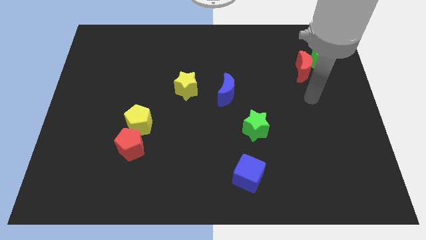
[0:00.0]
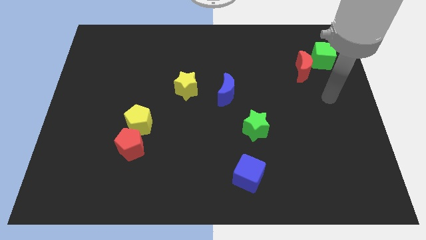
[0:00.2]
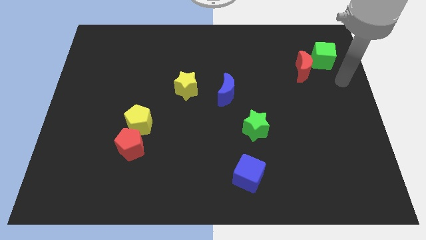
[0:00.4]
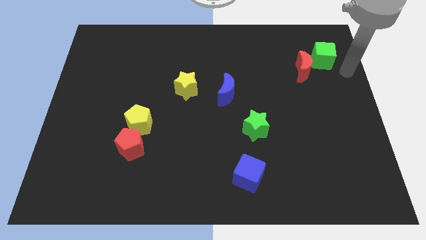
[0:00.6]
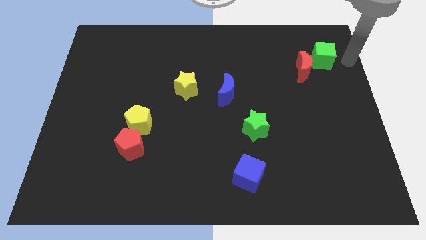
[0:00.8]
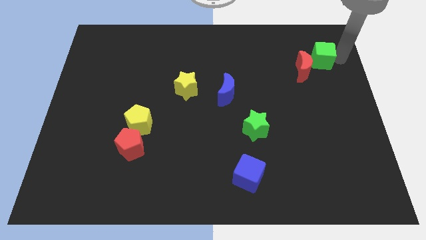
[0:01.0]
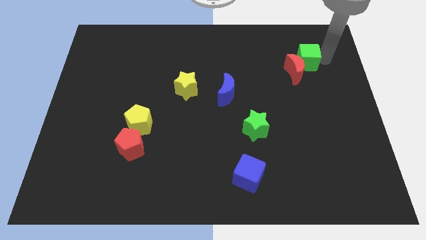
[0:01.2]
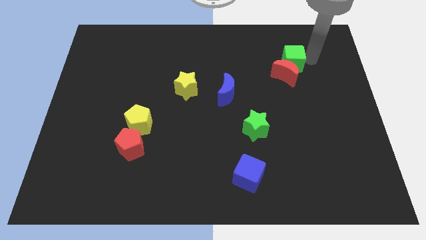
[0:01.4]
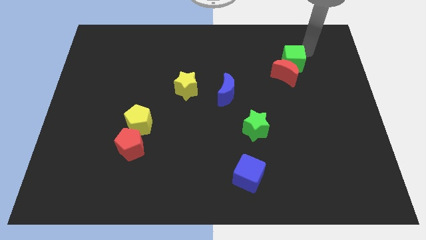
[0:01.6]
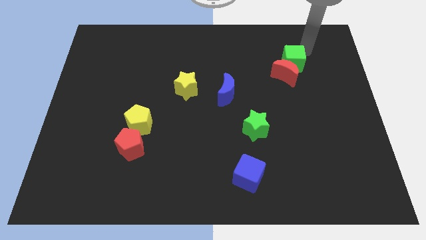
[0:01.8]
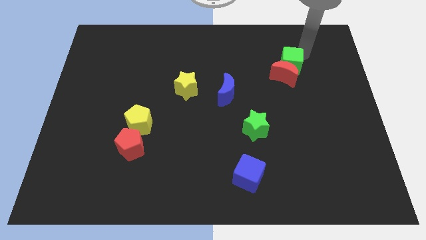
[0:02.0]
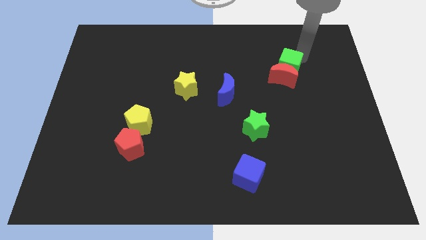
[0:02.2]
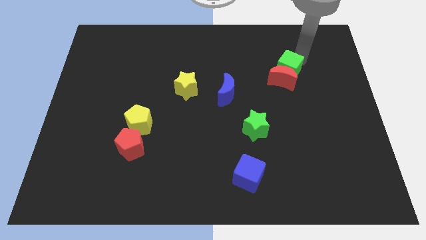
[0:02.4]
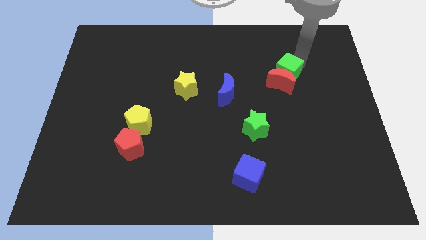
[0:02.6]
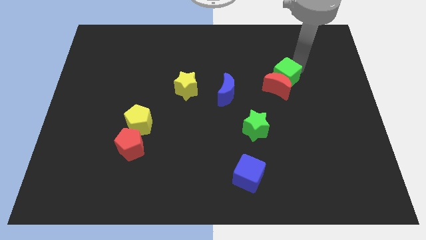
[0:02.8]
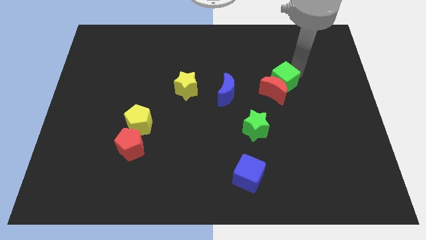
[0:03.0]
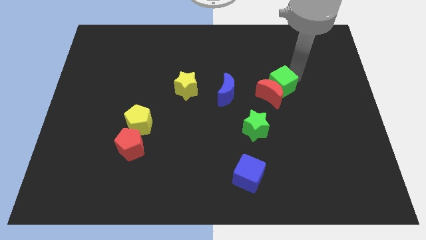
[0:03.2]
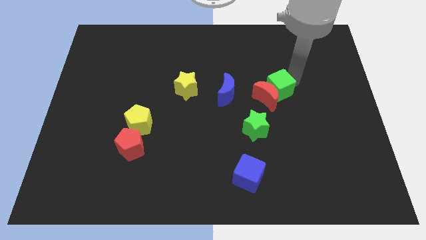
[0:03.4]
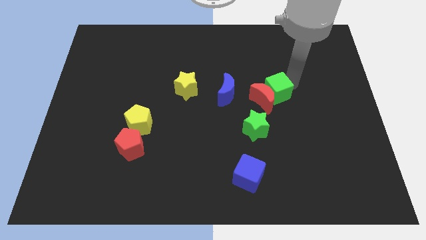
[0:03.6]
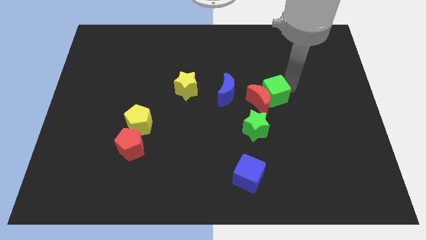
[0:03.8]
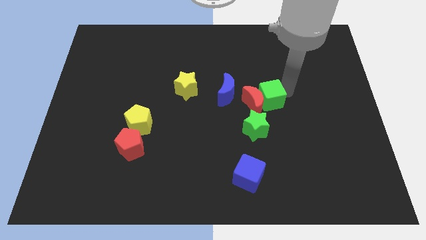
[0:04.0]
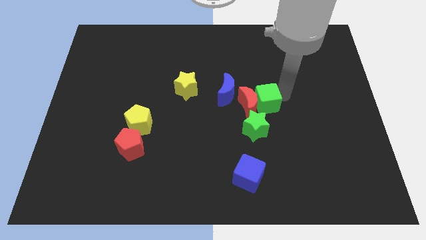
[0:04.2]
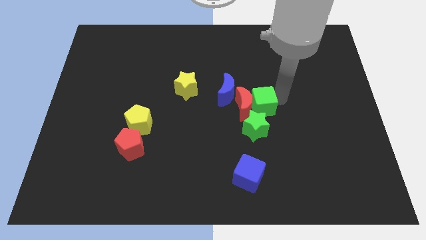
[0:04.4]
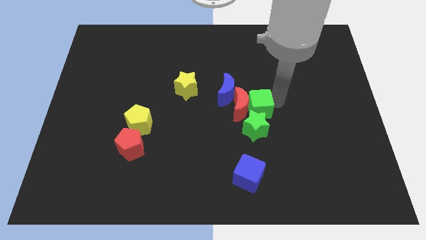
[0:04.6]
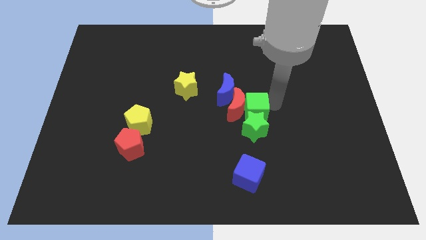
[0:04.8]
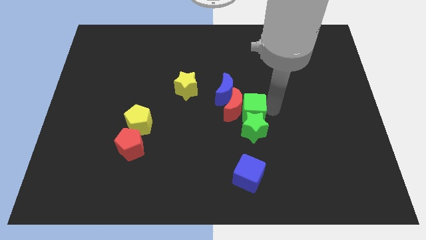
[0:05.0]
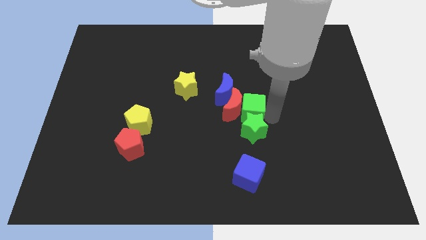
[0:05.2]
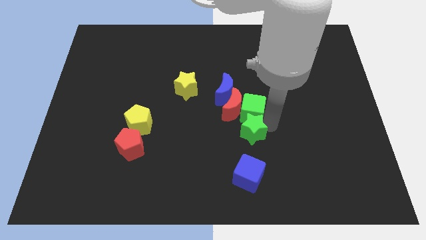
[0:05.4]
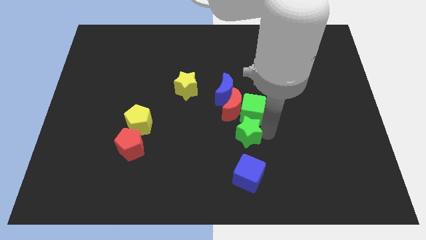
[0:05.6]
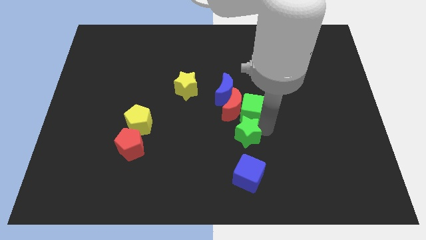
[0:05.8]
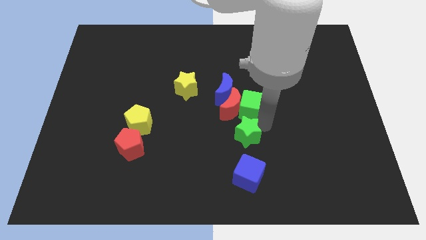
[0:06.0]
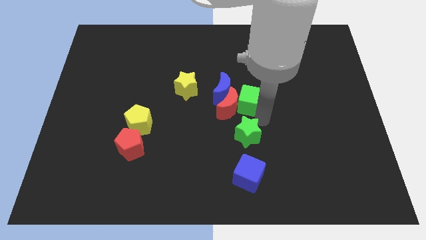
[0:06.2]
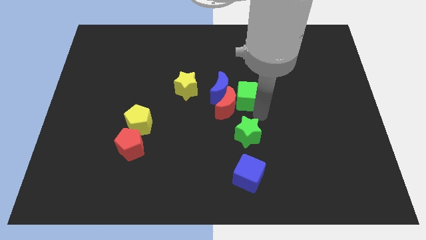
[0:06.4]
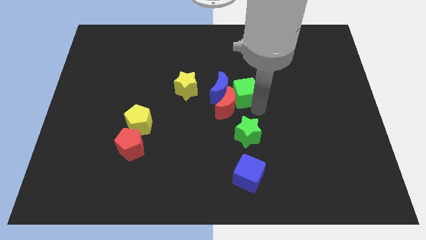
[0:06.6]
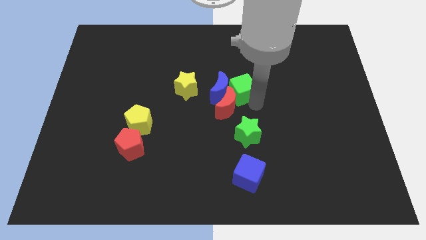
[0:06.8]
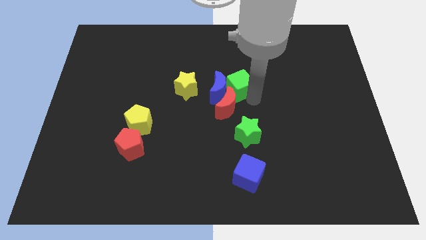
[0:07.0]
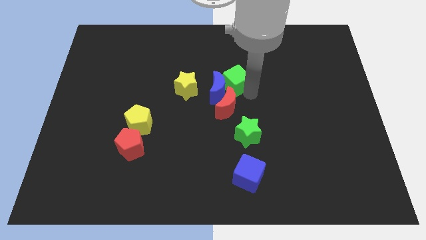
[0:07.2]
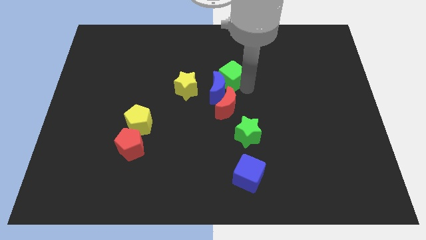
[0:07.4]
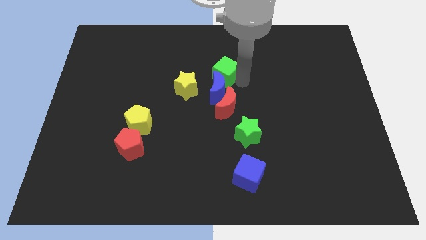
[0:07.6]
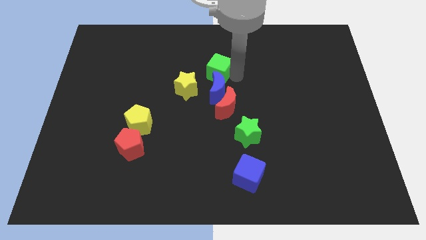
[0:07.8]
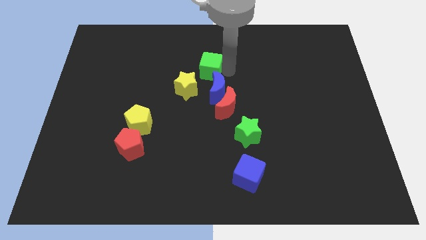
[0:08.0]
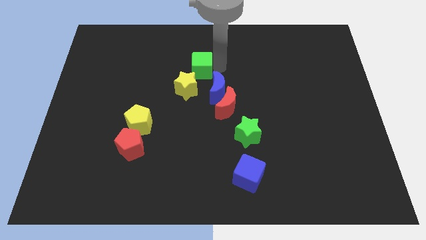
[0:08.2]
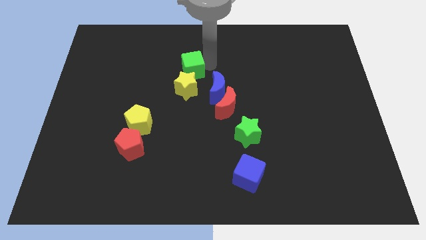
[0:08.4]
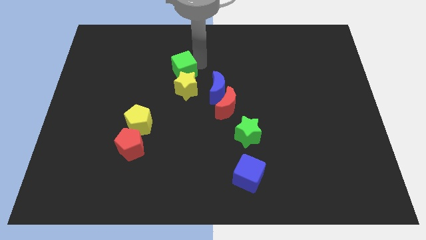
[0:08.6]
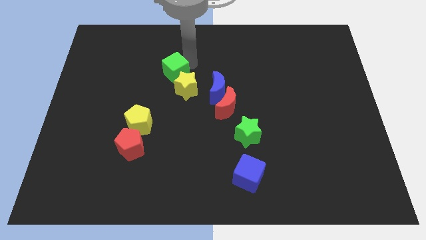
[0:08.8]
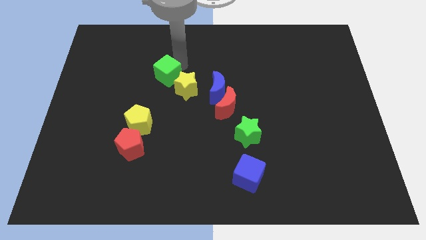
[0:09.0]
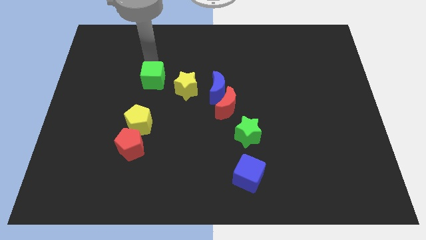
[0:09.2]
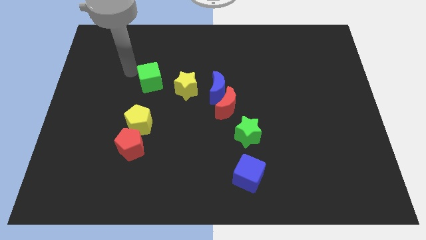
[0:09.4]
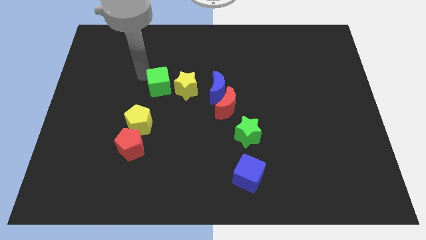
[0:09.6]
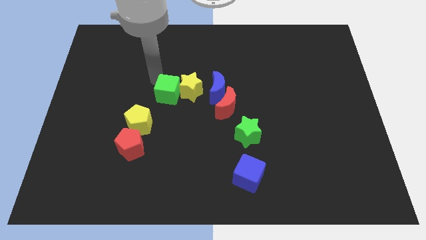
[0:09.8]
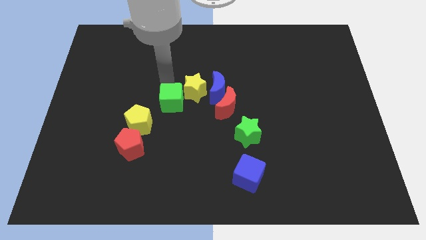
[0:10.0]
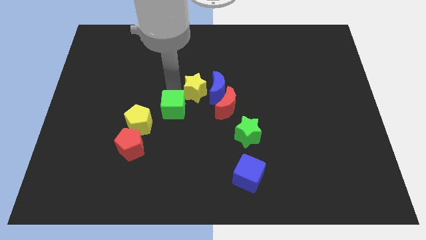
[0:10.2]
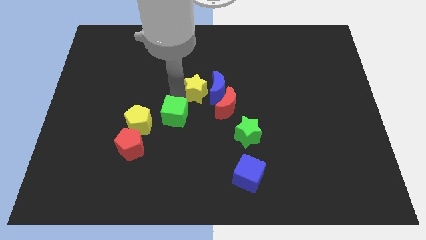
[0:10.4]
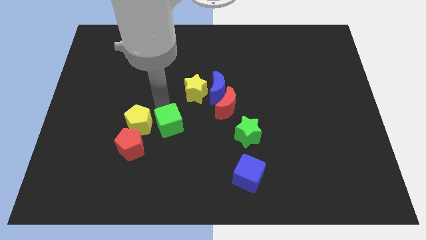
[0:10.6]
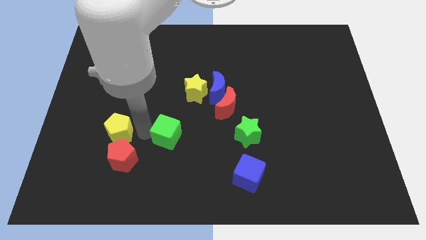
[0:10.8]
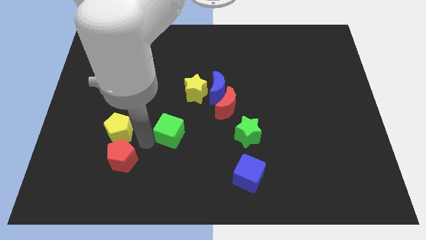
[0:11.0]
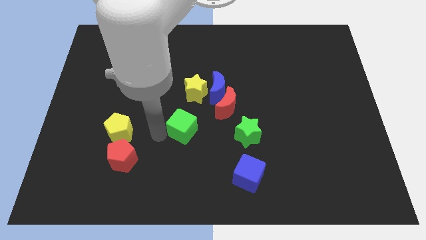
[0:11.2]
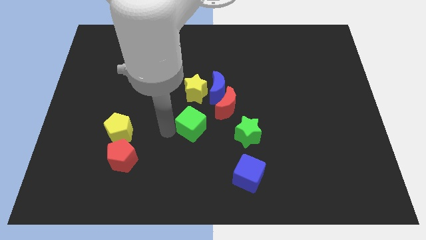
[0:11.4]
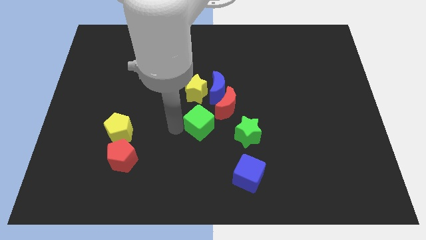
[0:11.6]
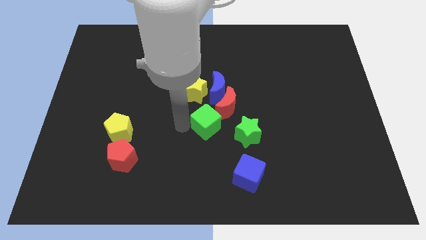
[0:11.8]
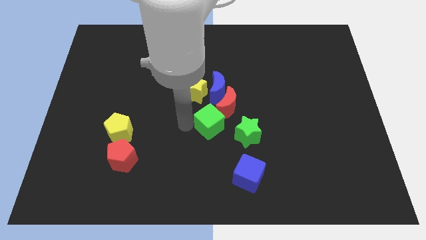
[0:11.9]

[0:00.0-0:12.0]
slide the green cube diagonally down and to the right of the yellow star

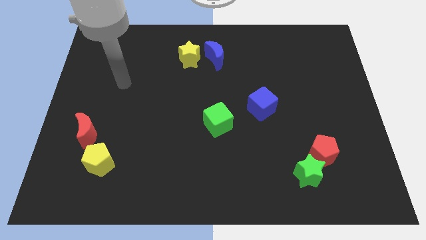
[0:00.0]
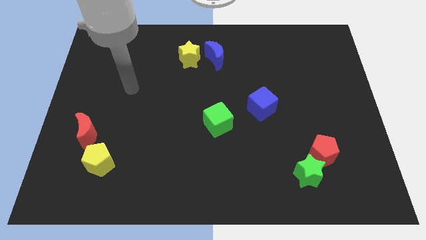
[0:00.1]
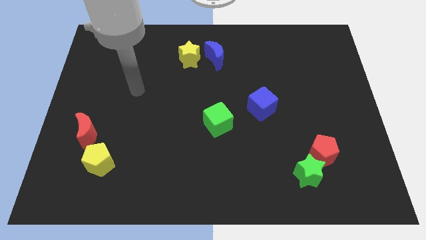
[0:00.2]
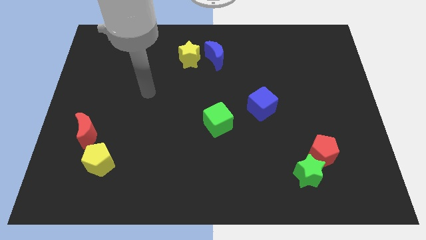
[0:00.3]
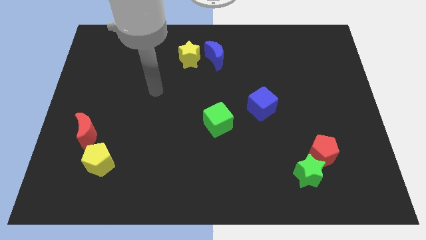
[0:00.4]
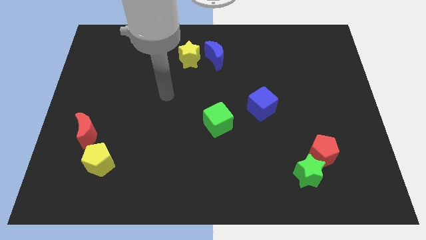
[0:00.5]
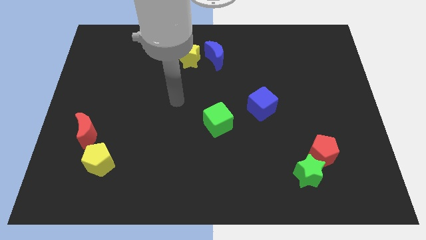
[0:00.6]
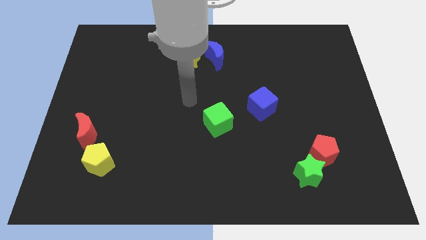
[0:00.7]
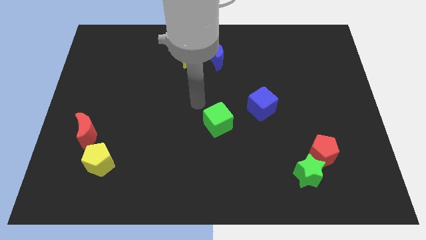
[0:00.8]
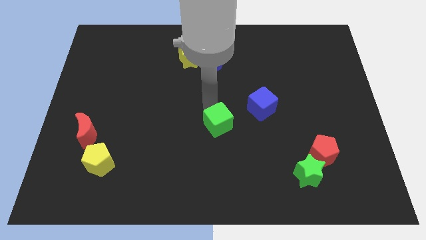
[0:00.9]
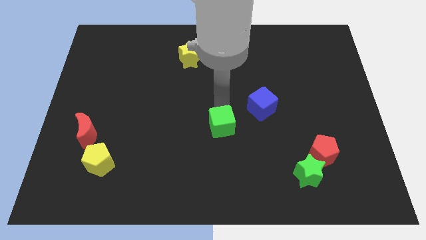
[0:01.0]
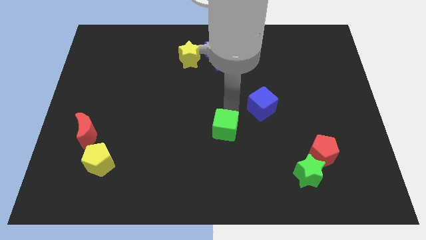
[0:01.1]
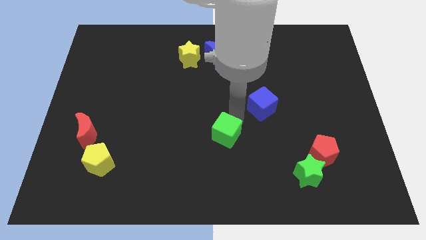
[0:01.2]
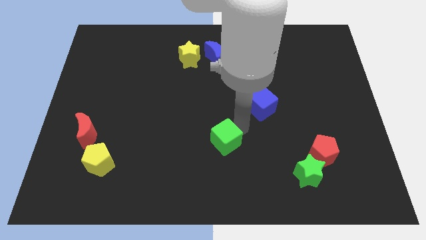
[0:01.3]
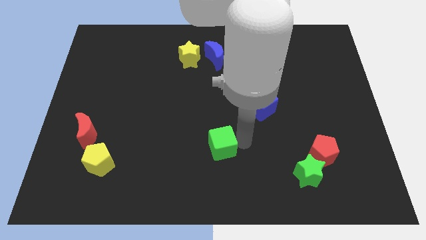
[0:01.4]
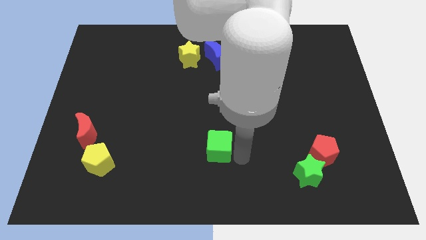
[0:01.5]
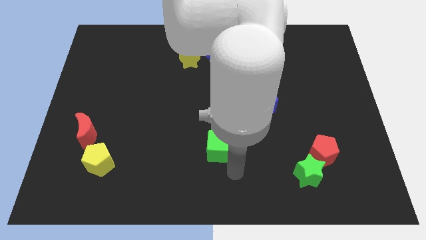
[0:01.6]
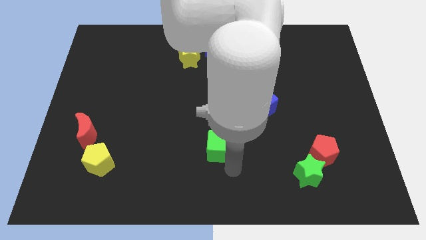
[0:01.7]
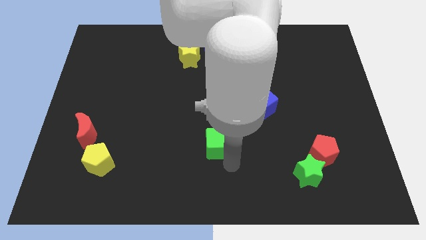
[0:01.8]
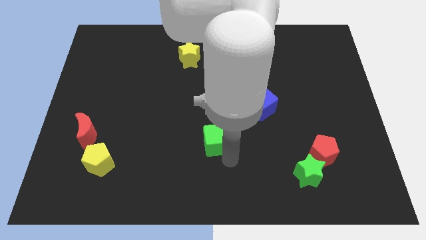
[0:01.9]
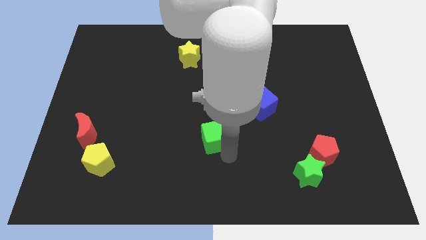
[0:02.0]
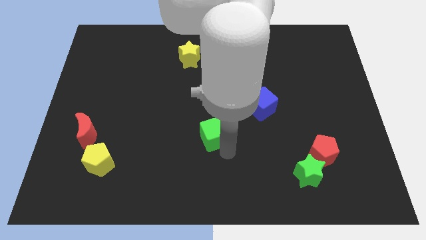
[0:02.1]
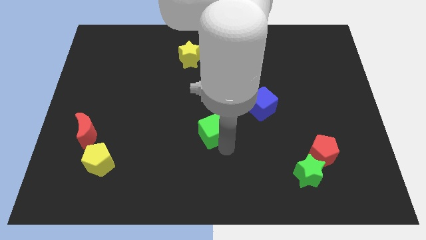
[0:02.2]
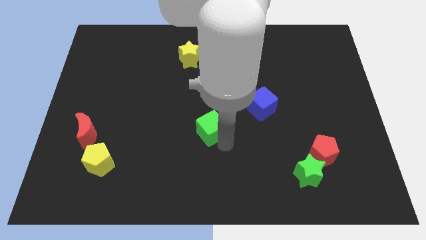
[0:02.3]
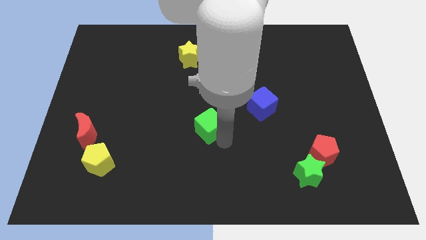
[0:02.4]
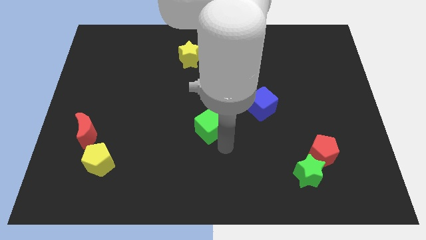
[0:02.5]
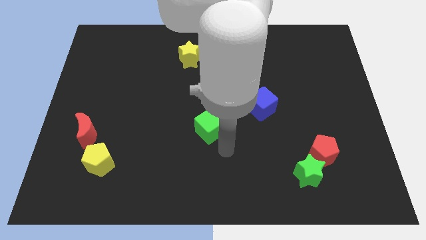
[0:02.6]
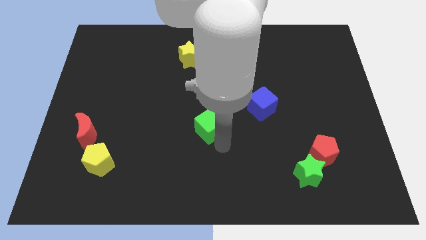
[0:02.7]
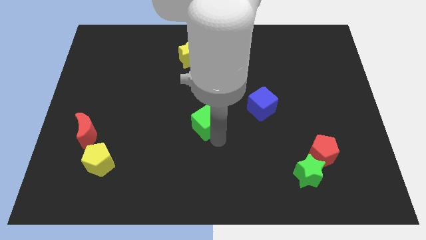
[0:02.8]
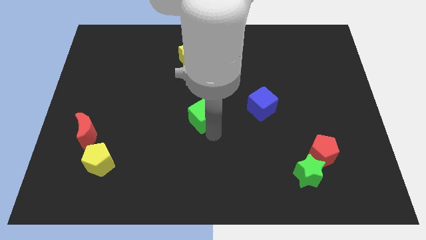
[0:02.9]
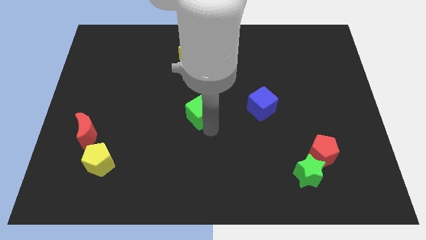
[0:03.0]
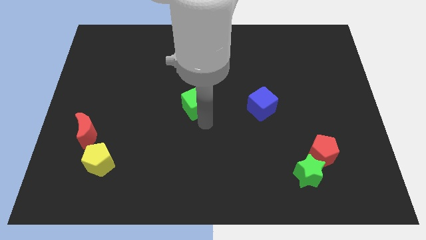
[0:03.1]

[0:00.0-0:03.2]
put the green cube below the yellow star
